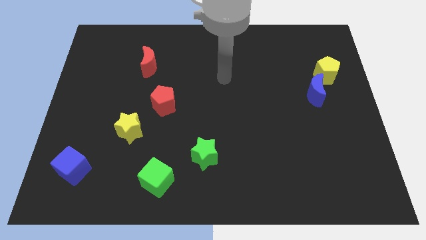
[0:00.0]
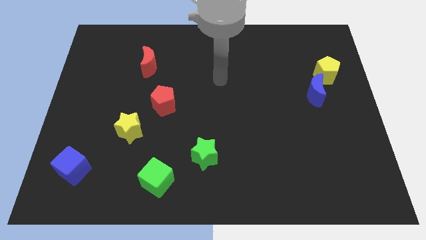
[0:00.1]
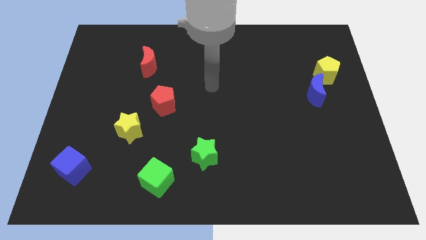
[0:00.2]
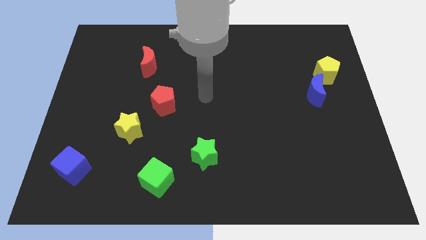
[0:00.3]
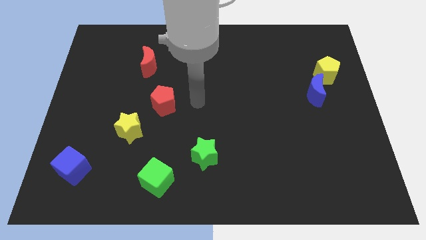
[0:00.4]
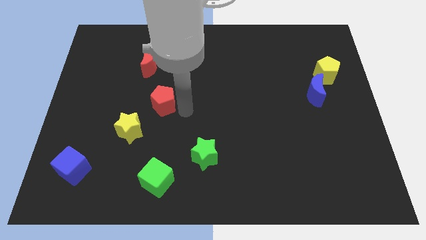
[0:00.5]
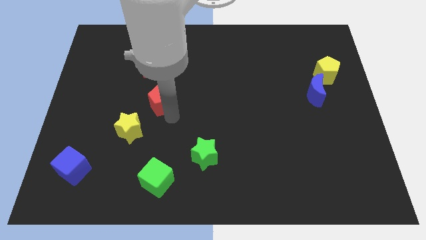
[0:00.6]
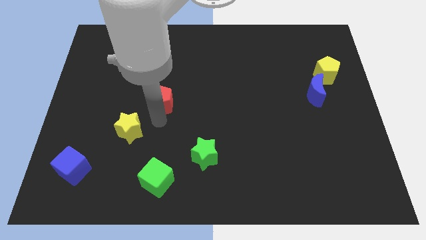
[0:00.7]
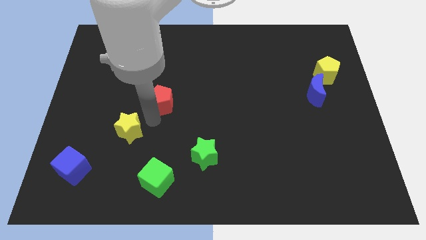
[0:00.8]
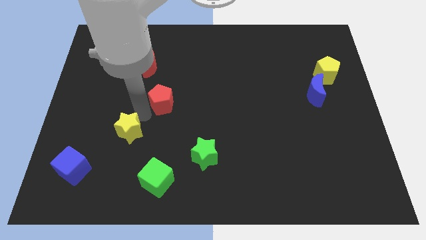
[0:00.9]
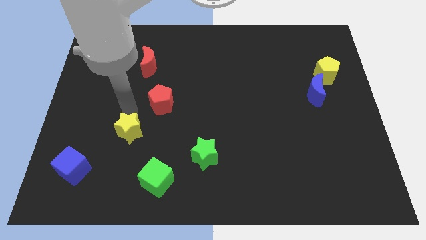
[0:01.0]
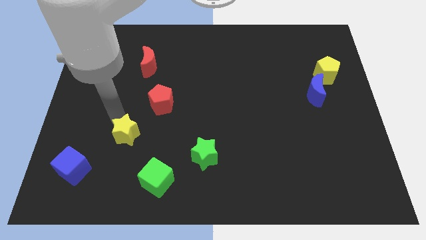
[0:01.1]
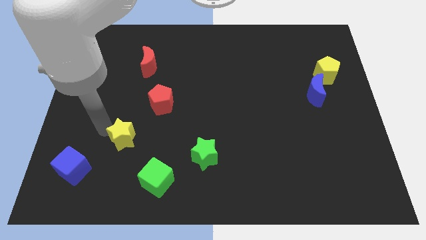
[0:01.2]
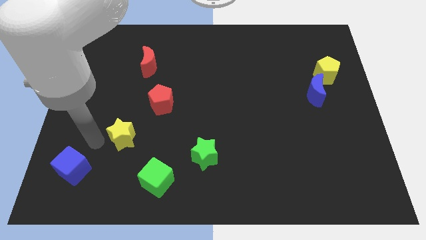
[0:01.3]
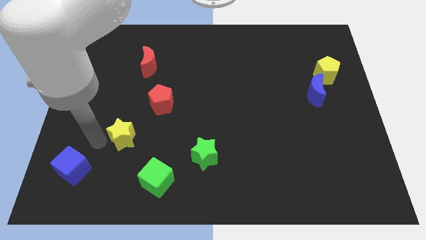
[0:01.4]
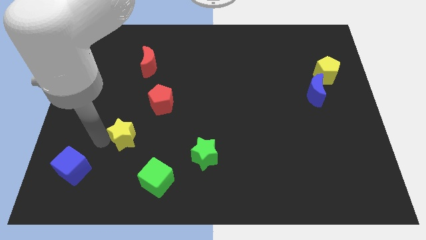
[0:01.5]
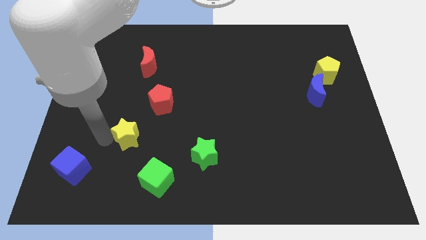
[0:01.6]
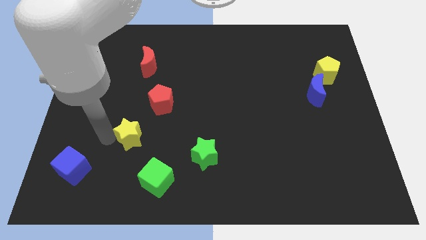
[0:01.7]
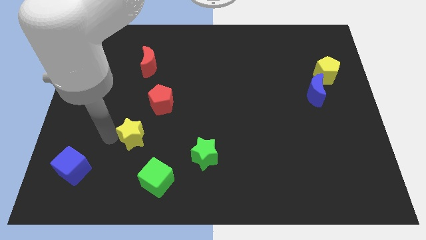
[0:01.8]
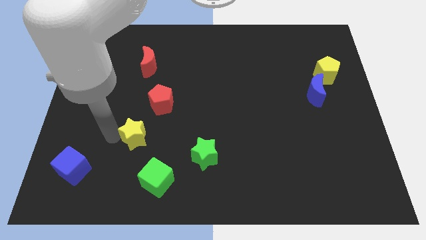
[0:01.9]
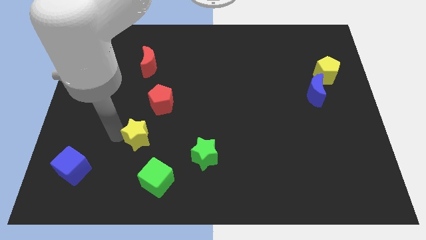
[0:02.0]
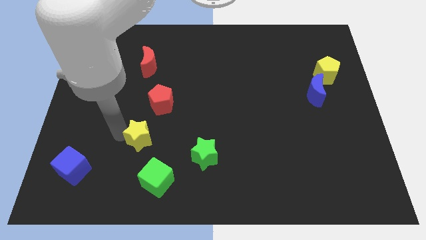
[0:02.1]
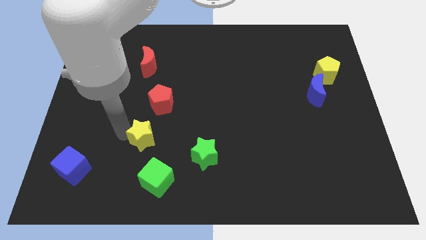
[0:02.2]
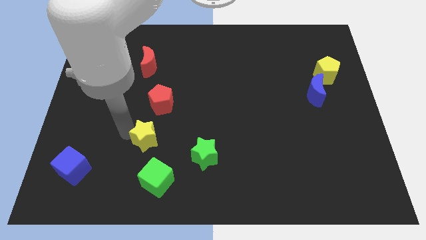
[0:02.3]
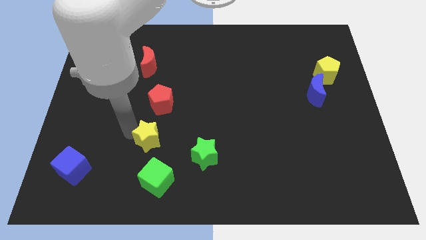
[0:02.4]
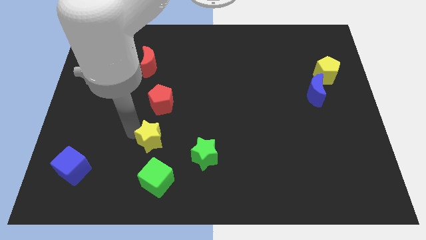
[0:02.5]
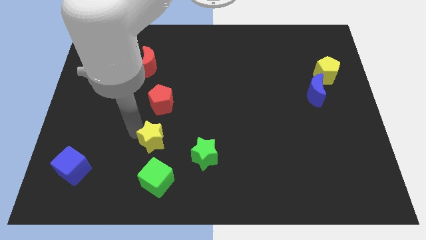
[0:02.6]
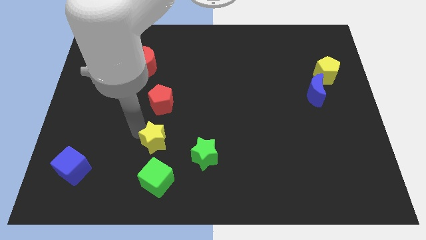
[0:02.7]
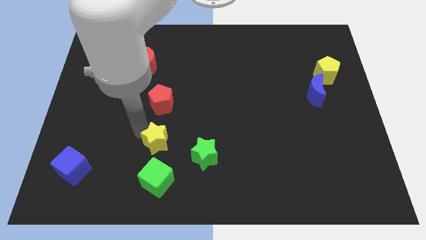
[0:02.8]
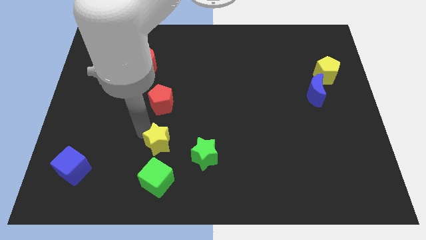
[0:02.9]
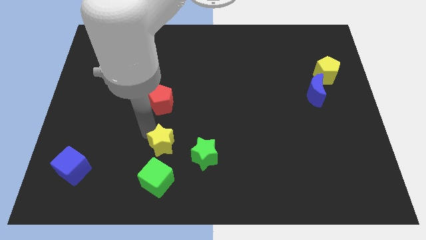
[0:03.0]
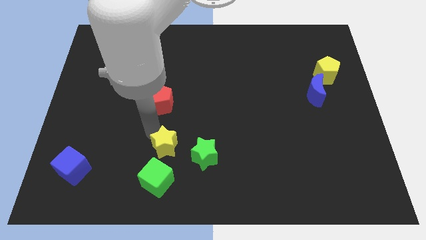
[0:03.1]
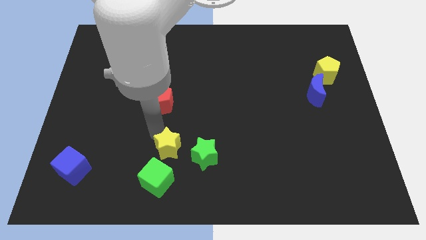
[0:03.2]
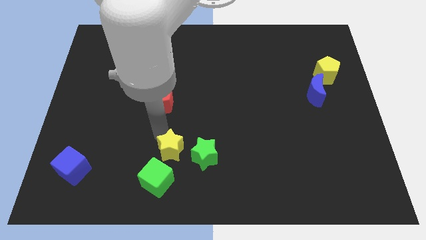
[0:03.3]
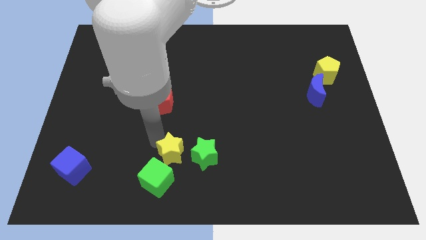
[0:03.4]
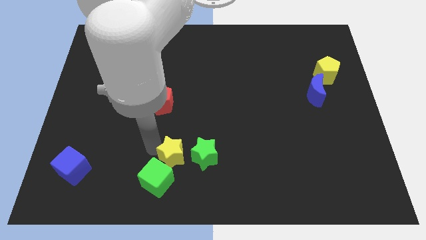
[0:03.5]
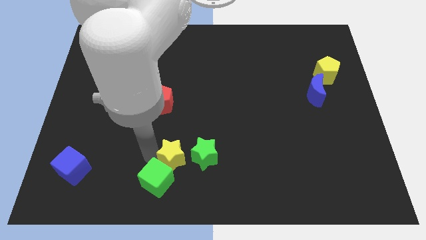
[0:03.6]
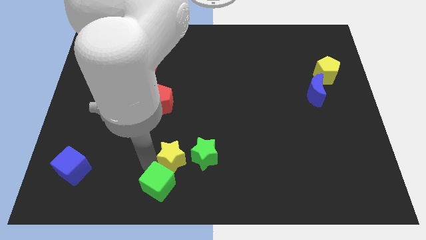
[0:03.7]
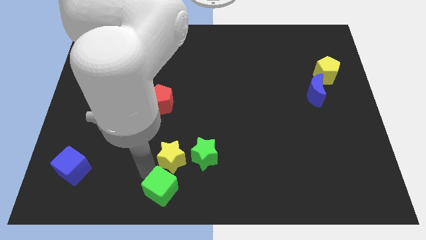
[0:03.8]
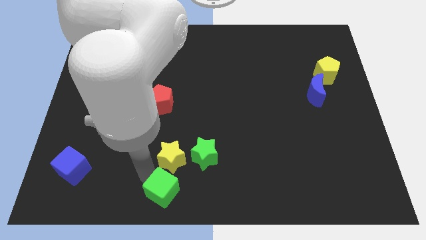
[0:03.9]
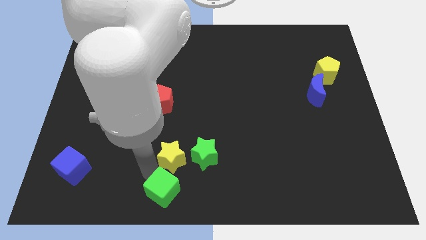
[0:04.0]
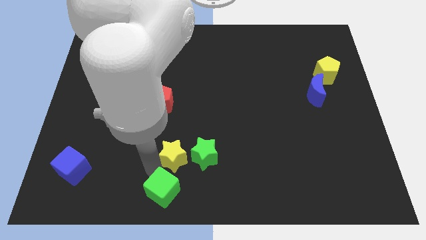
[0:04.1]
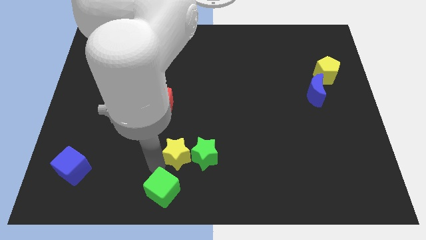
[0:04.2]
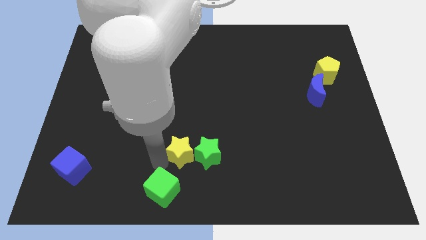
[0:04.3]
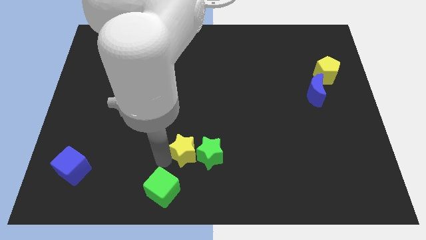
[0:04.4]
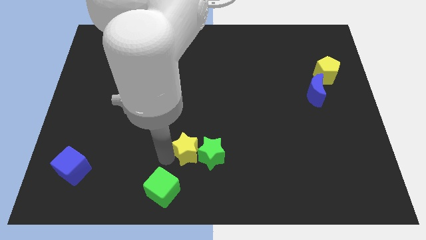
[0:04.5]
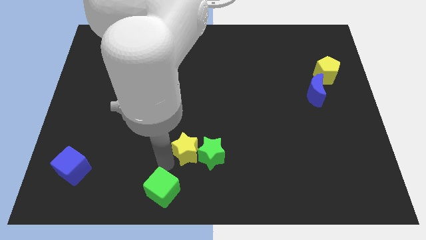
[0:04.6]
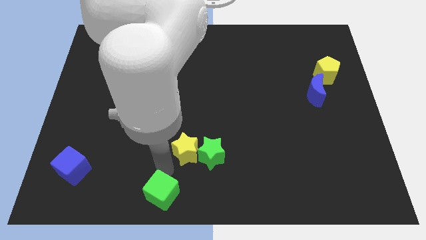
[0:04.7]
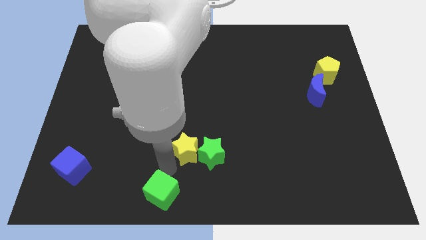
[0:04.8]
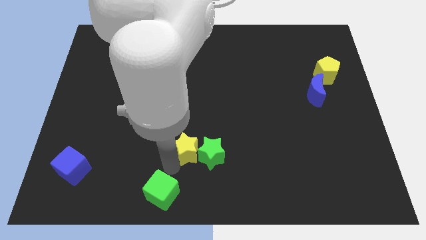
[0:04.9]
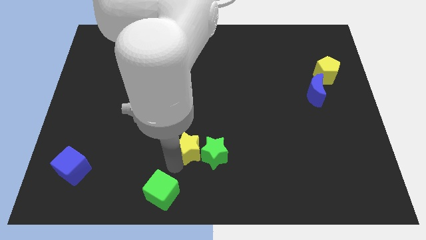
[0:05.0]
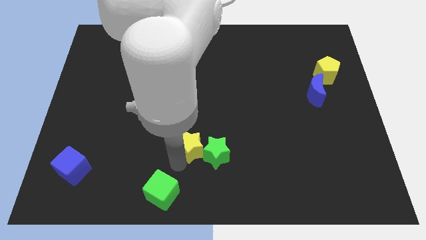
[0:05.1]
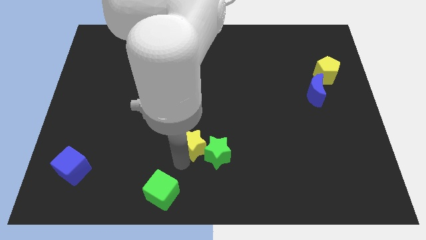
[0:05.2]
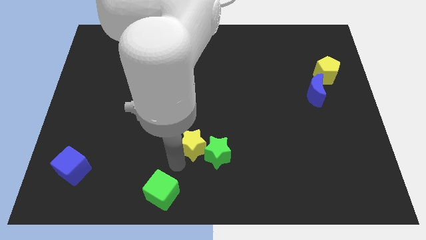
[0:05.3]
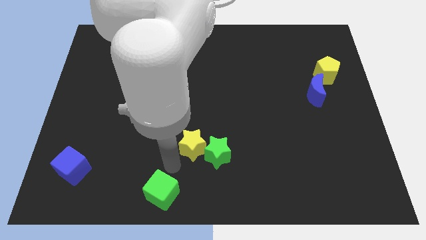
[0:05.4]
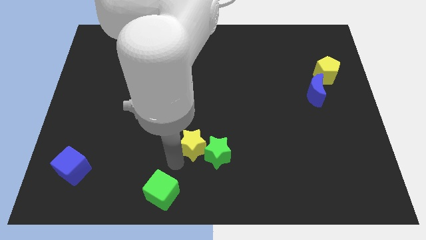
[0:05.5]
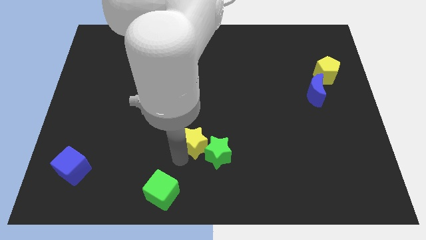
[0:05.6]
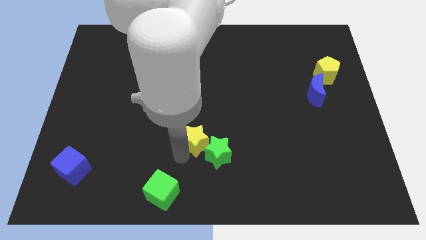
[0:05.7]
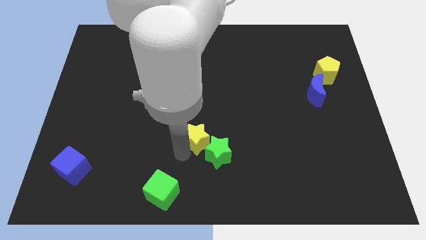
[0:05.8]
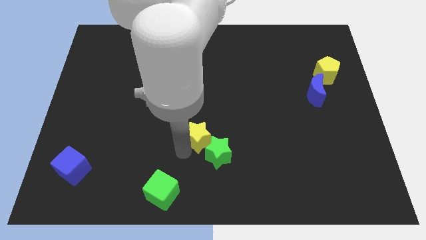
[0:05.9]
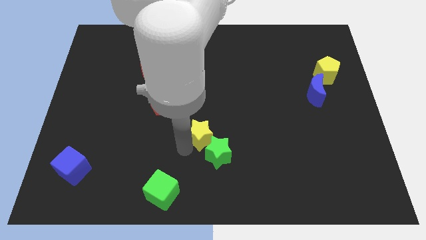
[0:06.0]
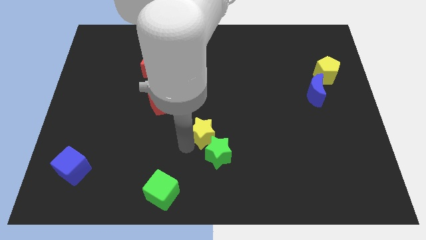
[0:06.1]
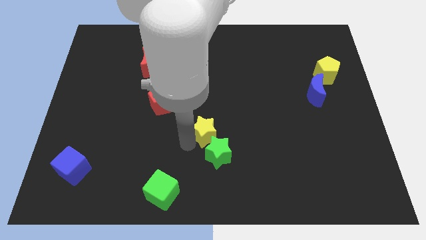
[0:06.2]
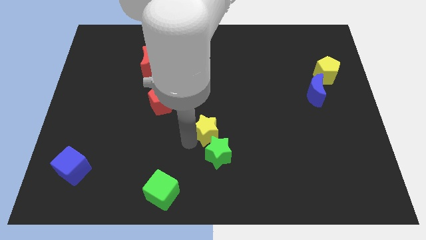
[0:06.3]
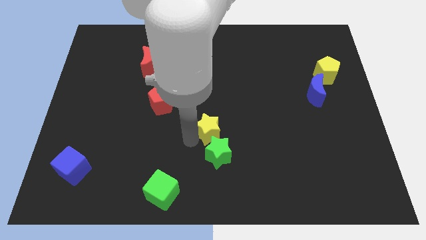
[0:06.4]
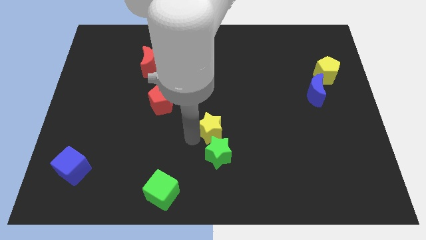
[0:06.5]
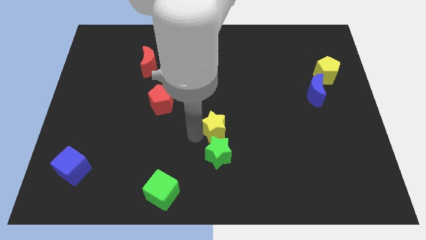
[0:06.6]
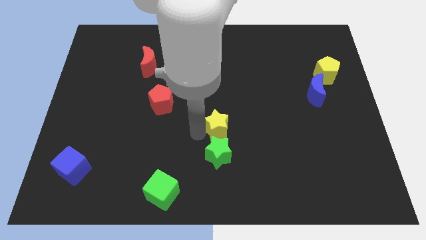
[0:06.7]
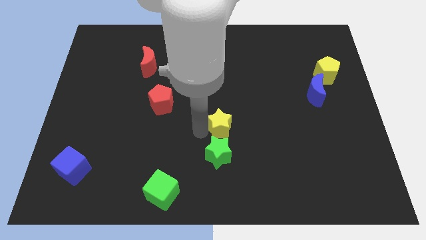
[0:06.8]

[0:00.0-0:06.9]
slide the yellow star right

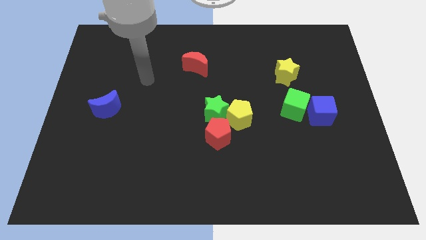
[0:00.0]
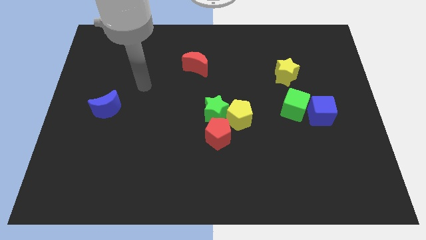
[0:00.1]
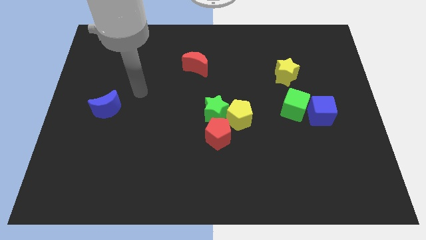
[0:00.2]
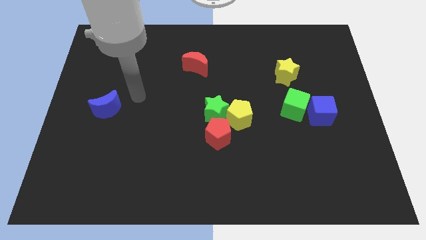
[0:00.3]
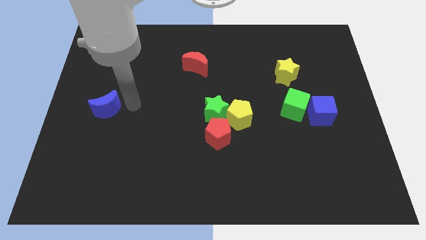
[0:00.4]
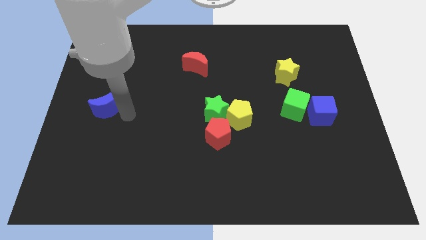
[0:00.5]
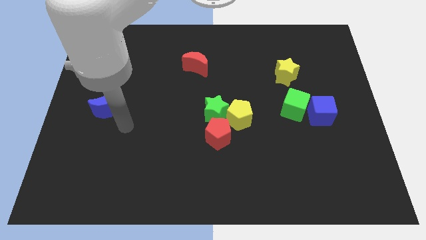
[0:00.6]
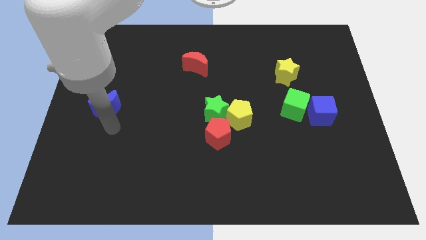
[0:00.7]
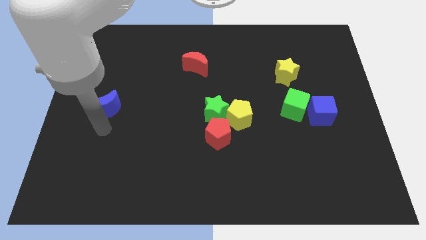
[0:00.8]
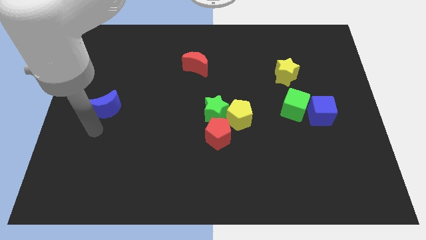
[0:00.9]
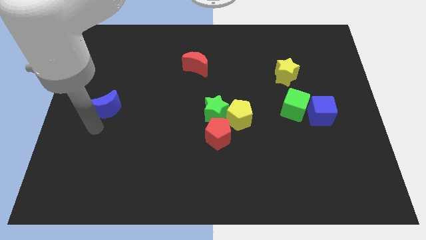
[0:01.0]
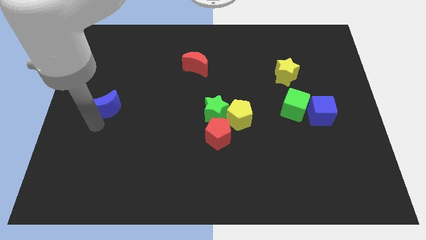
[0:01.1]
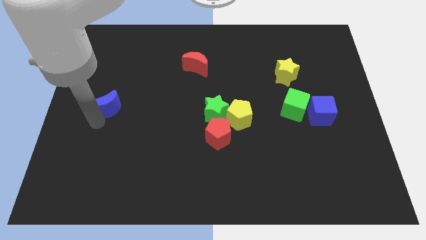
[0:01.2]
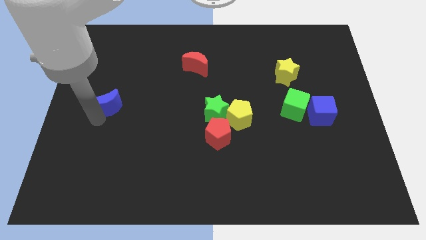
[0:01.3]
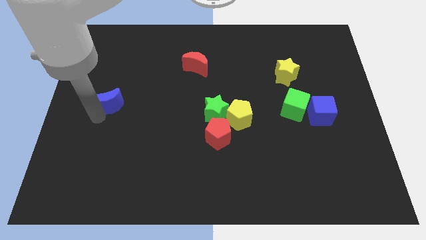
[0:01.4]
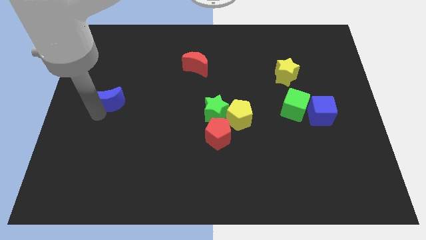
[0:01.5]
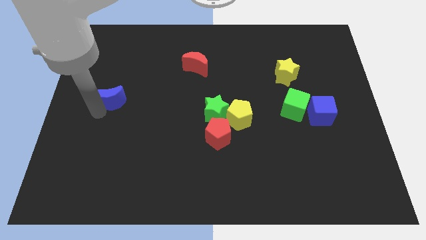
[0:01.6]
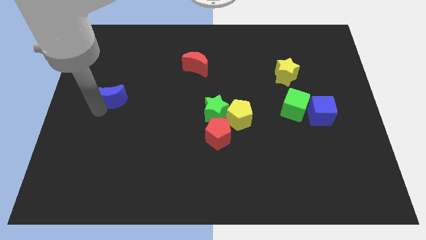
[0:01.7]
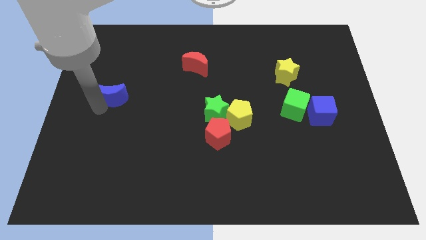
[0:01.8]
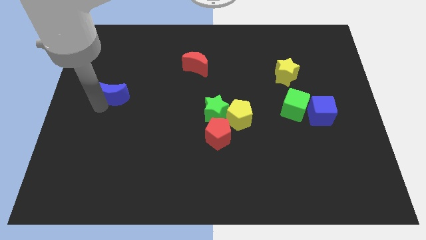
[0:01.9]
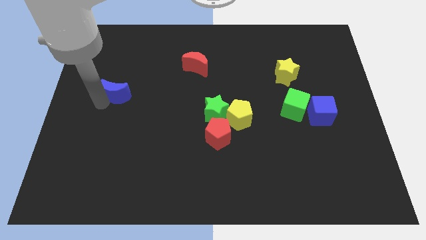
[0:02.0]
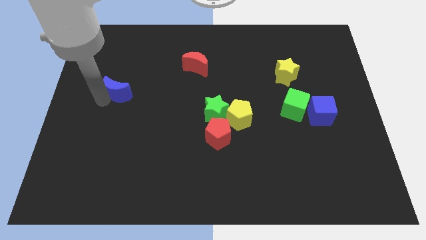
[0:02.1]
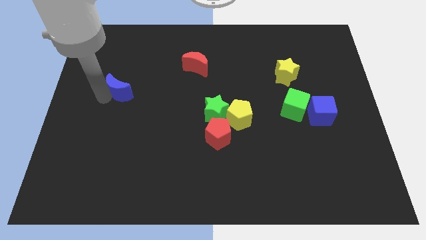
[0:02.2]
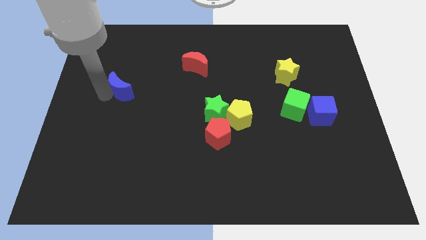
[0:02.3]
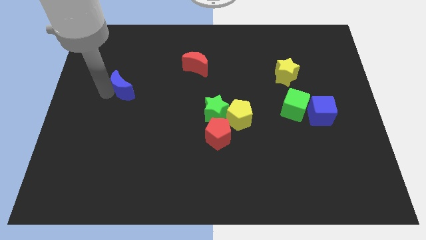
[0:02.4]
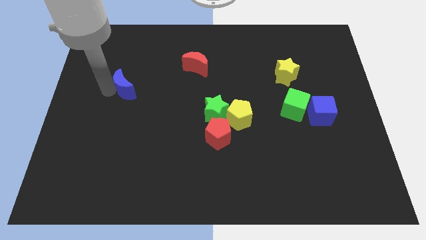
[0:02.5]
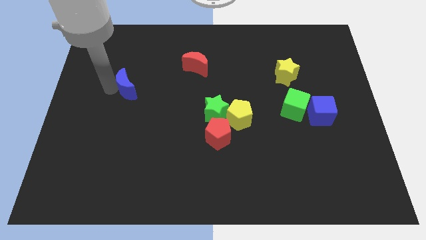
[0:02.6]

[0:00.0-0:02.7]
move the blue moon upwards and right a little
